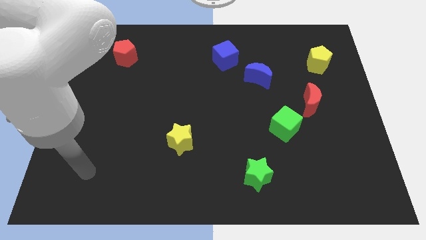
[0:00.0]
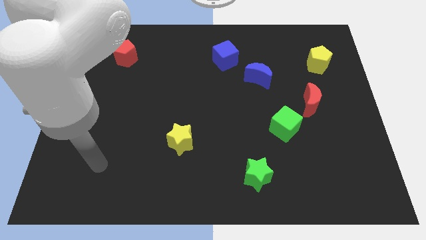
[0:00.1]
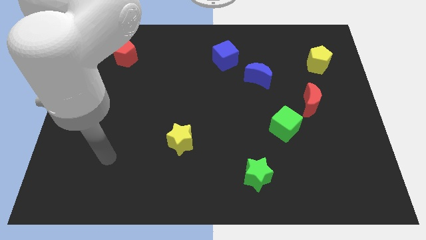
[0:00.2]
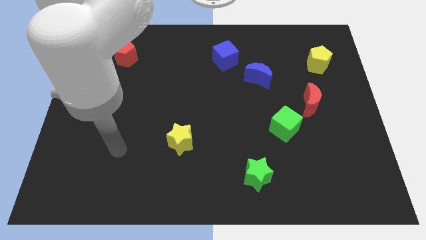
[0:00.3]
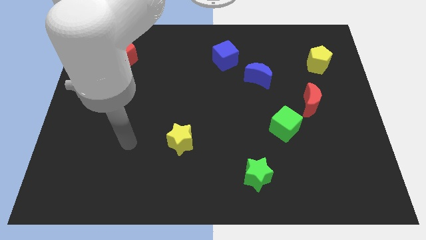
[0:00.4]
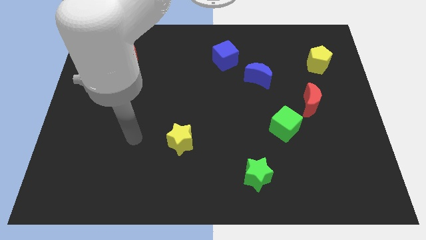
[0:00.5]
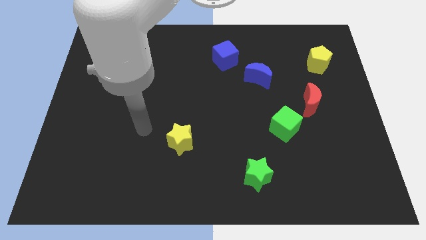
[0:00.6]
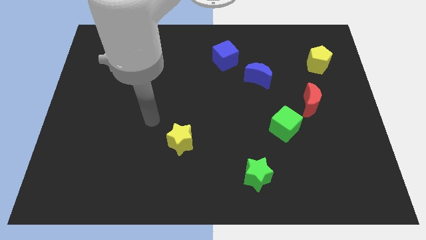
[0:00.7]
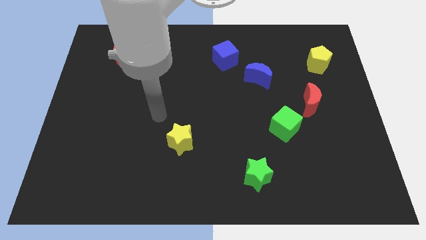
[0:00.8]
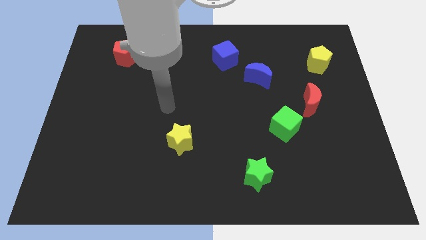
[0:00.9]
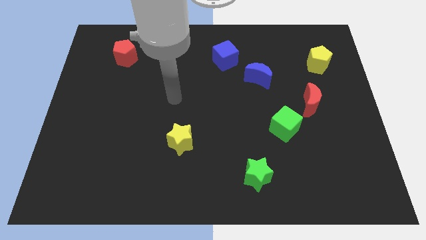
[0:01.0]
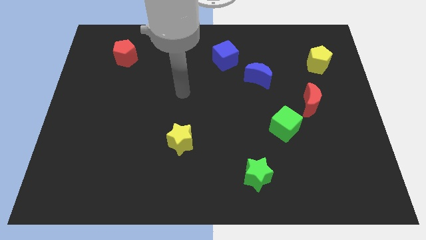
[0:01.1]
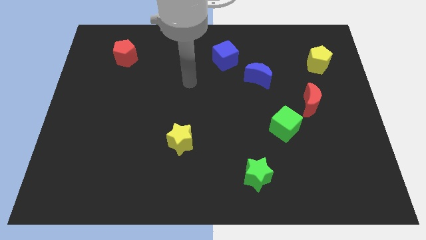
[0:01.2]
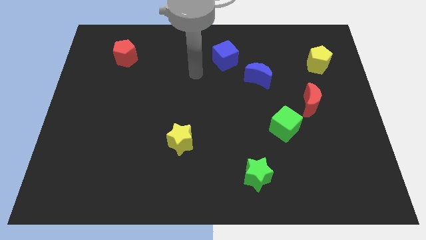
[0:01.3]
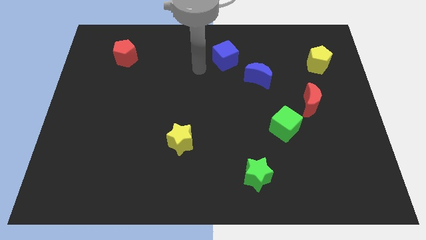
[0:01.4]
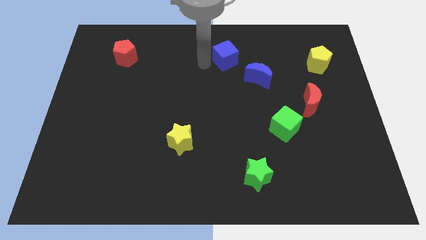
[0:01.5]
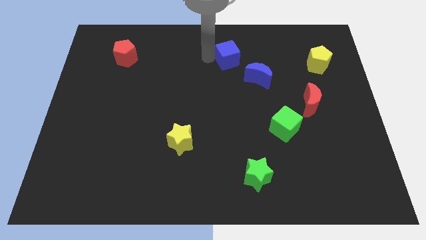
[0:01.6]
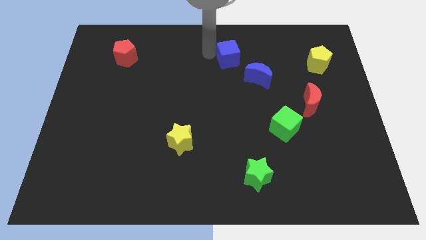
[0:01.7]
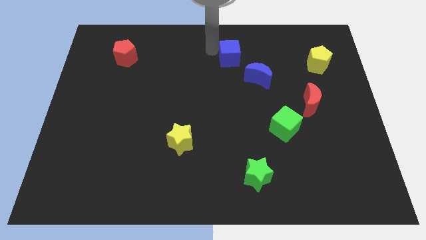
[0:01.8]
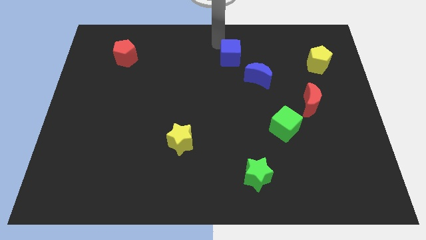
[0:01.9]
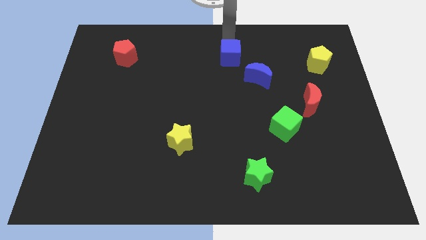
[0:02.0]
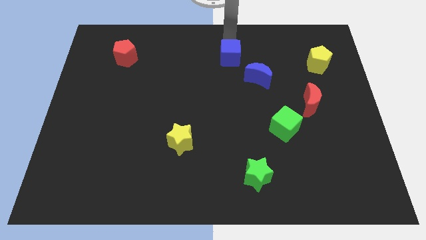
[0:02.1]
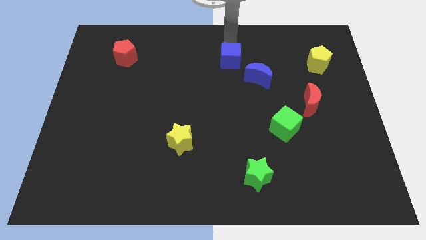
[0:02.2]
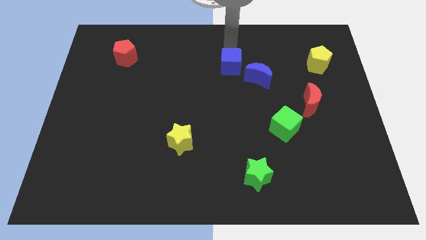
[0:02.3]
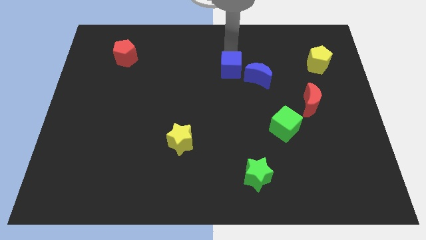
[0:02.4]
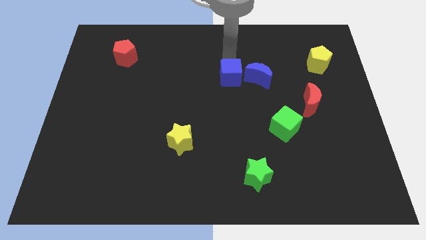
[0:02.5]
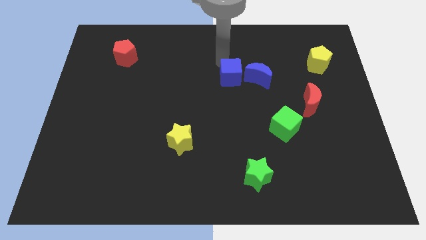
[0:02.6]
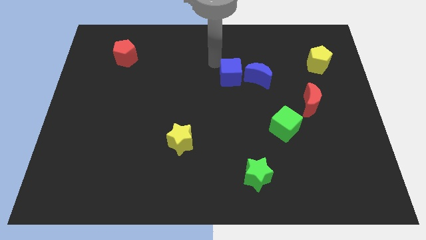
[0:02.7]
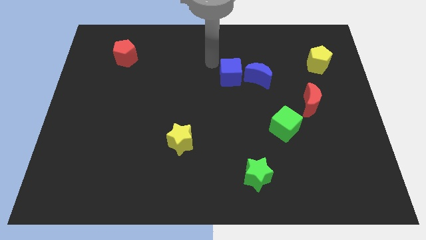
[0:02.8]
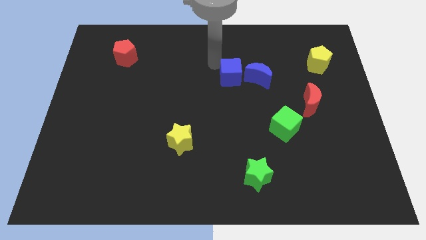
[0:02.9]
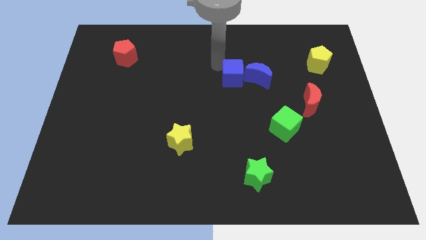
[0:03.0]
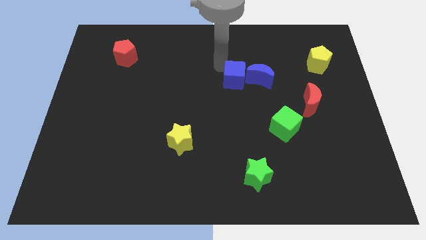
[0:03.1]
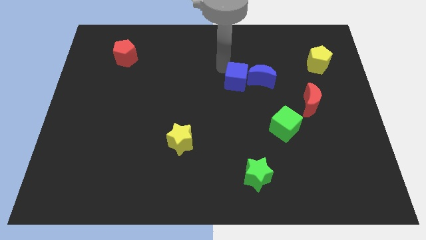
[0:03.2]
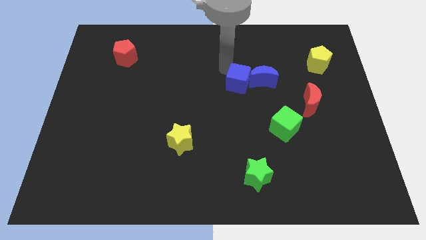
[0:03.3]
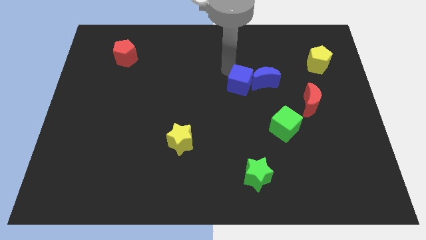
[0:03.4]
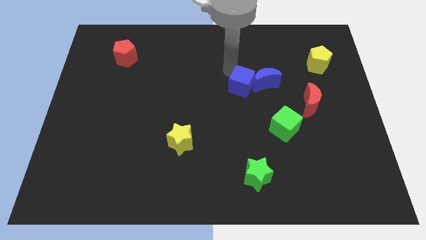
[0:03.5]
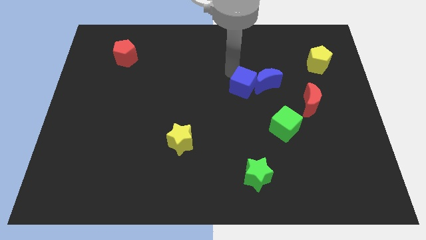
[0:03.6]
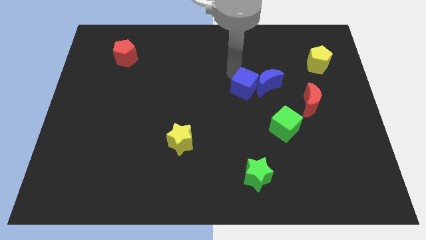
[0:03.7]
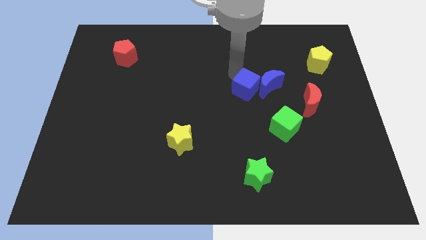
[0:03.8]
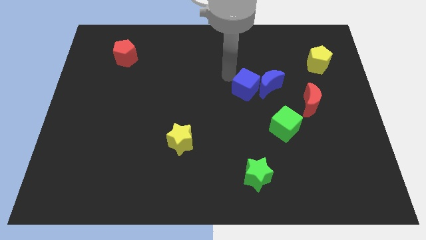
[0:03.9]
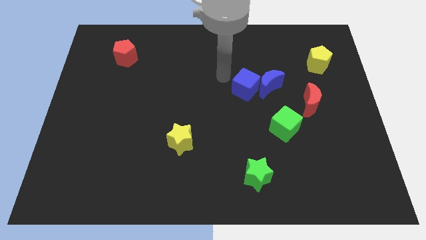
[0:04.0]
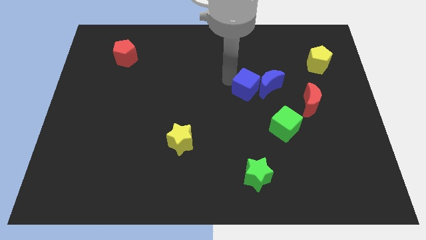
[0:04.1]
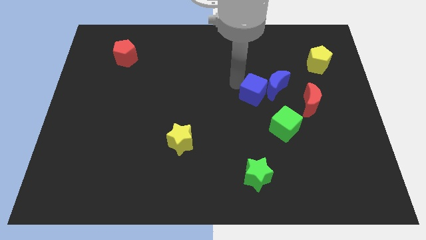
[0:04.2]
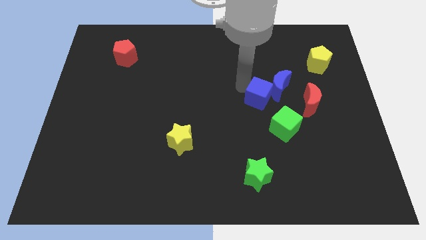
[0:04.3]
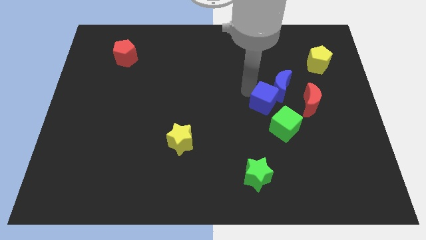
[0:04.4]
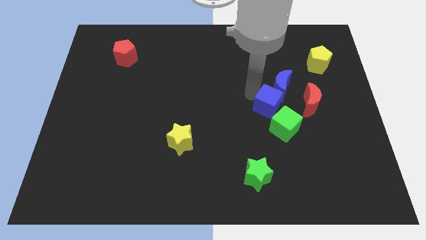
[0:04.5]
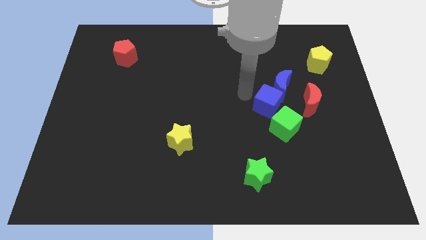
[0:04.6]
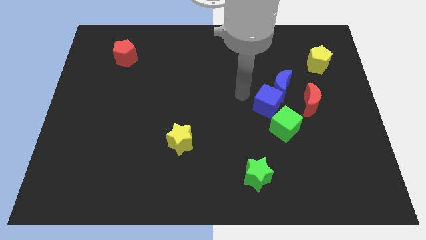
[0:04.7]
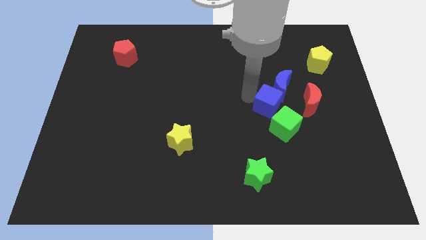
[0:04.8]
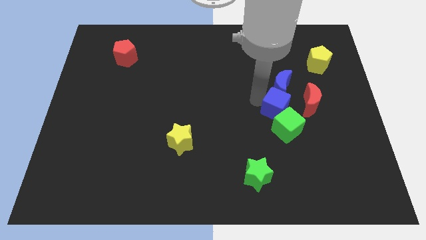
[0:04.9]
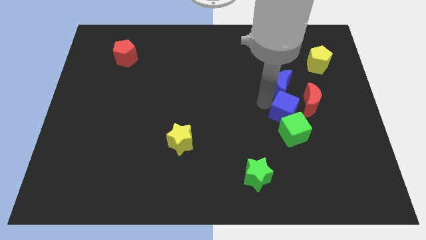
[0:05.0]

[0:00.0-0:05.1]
slide the blue cube down and then right

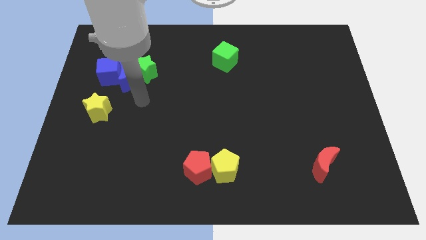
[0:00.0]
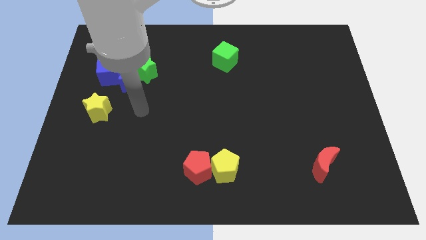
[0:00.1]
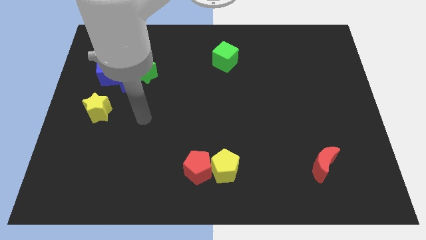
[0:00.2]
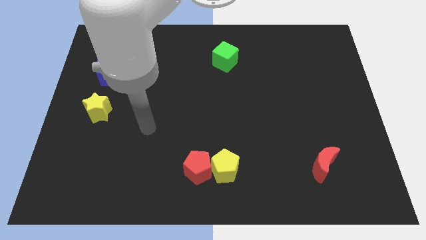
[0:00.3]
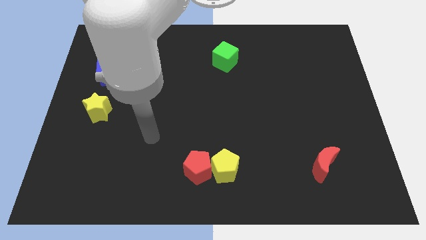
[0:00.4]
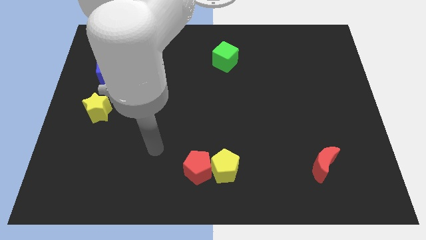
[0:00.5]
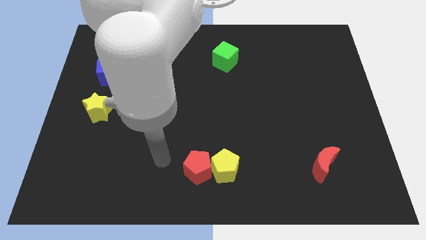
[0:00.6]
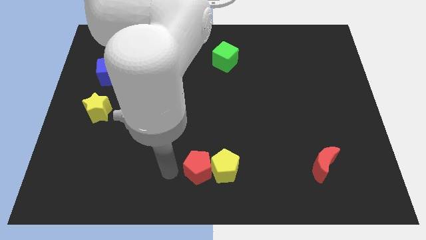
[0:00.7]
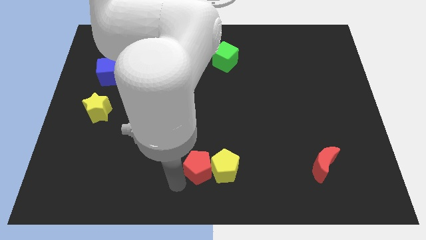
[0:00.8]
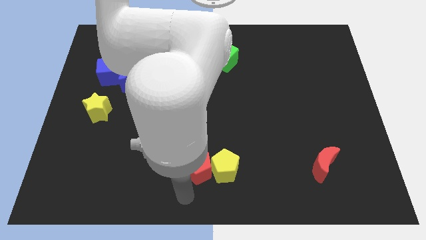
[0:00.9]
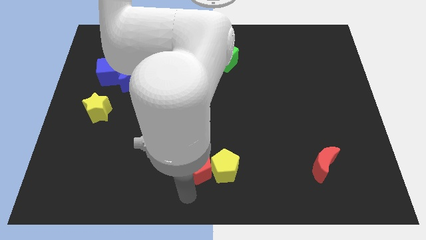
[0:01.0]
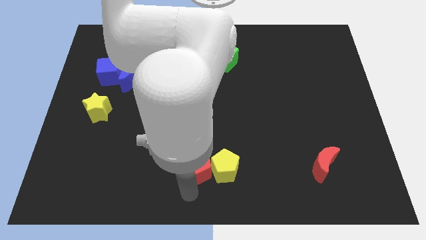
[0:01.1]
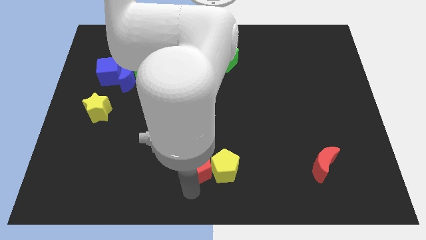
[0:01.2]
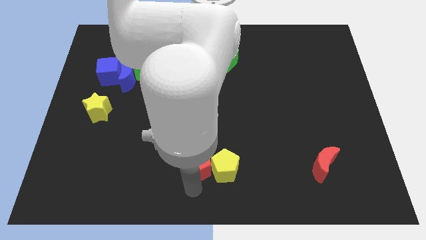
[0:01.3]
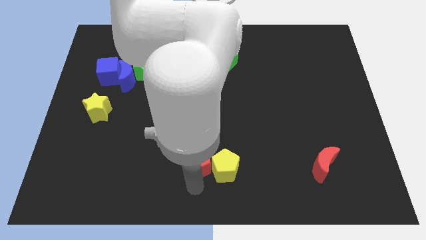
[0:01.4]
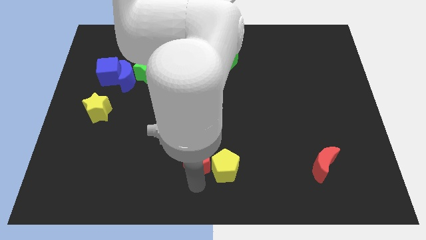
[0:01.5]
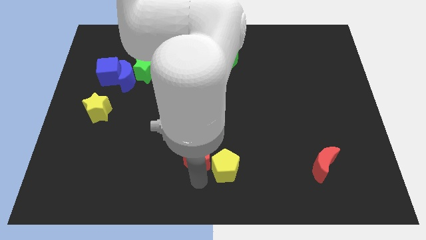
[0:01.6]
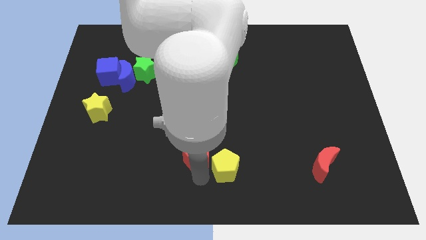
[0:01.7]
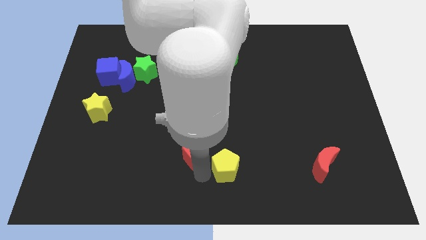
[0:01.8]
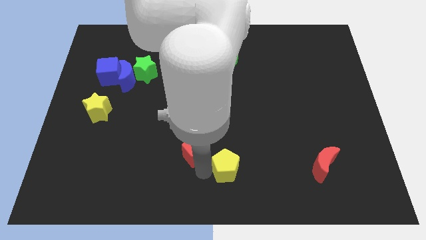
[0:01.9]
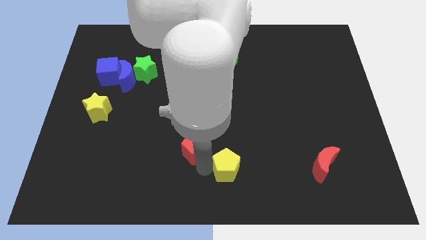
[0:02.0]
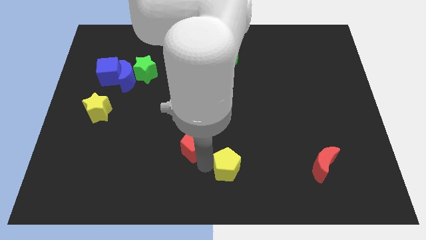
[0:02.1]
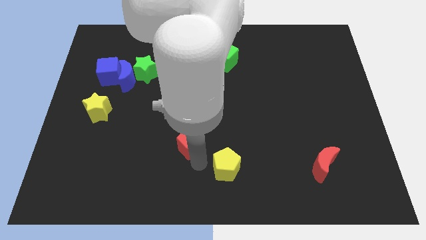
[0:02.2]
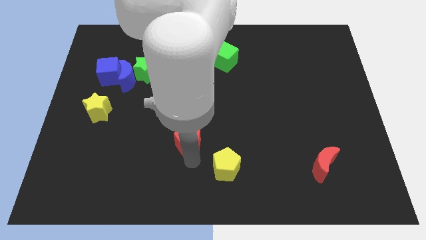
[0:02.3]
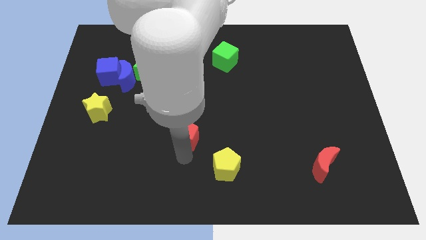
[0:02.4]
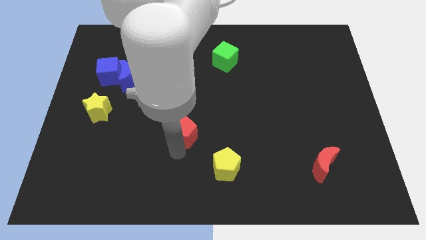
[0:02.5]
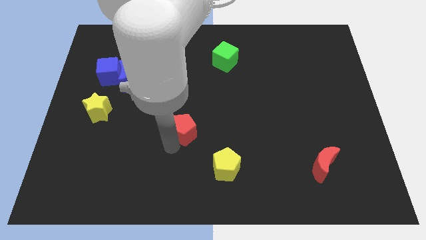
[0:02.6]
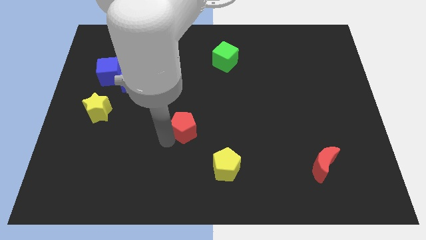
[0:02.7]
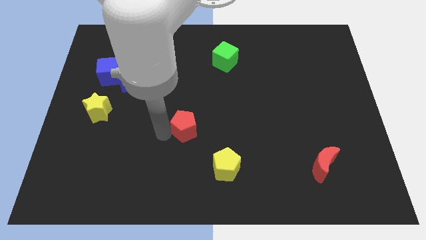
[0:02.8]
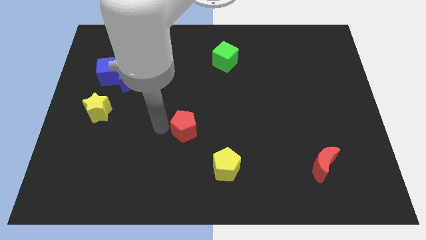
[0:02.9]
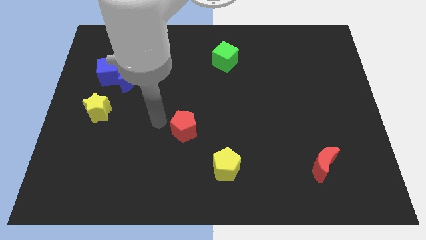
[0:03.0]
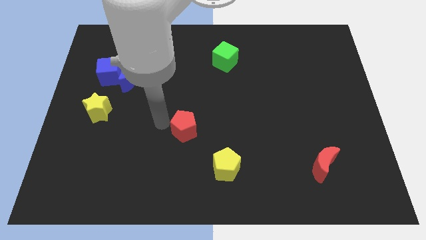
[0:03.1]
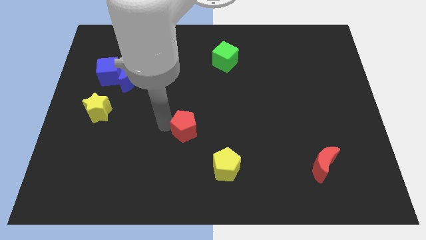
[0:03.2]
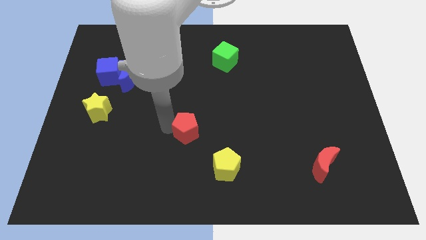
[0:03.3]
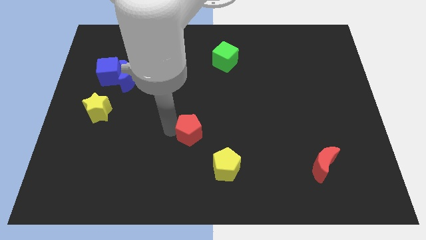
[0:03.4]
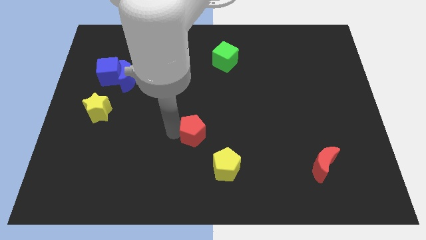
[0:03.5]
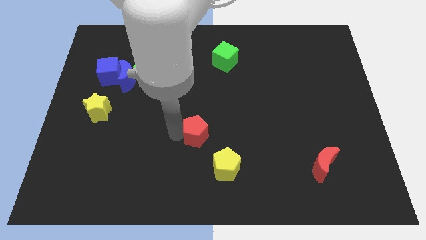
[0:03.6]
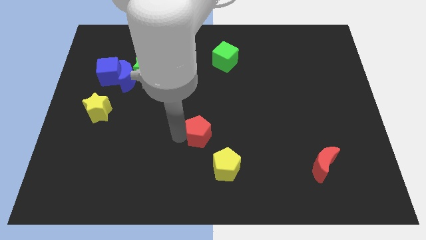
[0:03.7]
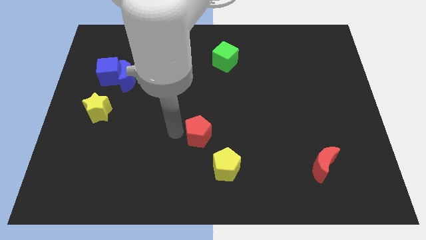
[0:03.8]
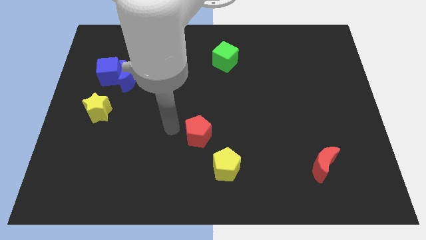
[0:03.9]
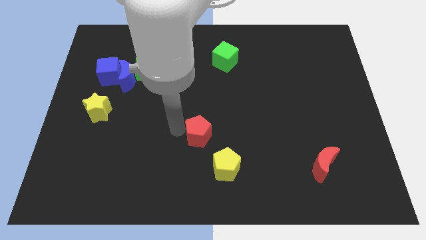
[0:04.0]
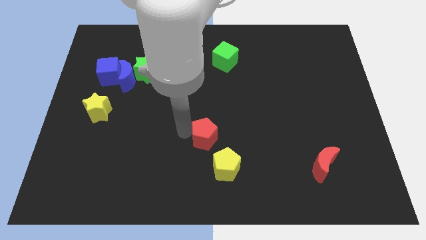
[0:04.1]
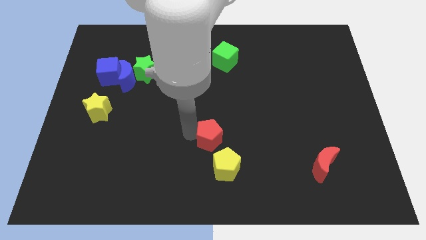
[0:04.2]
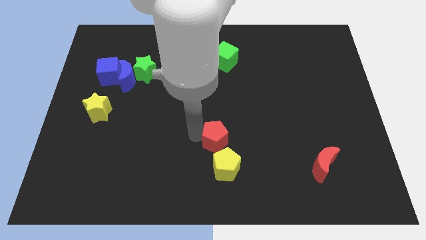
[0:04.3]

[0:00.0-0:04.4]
move the red pentagon up and right slightly
